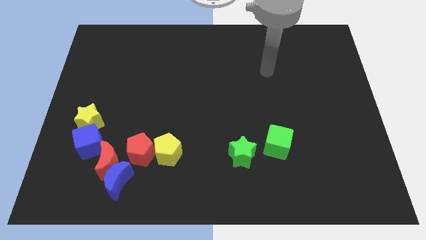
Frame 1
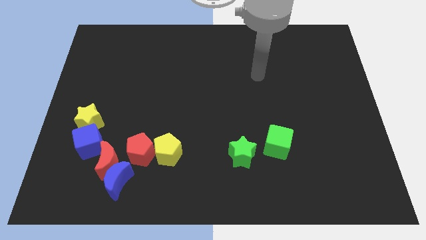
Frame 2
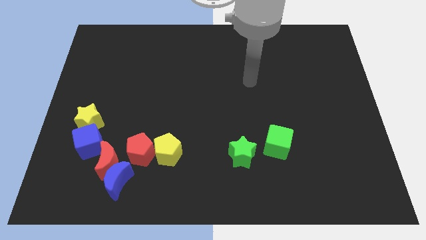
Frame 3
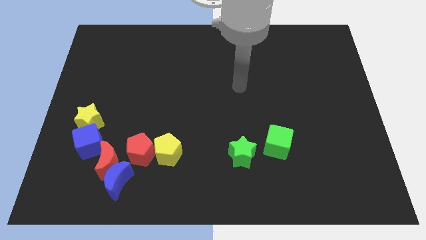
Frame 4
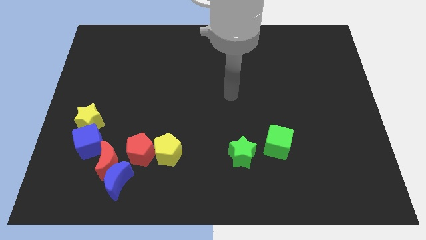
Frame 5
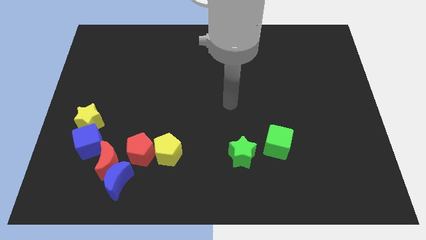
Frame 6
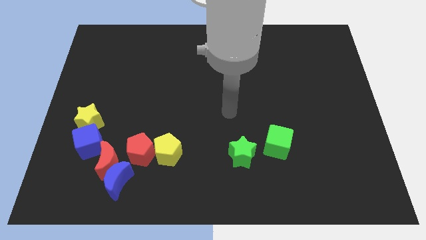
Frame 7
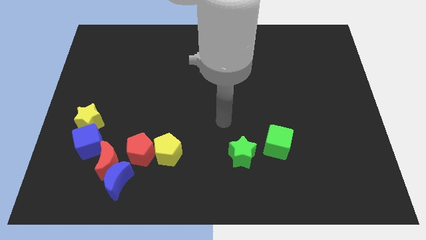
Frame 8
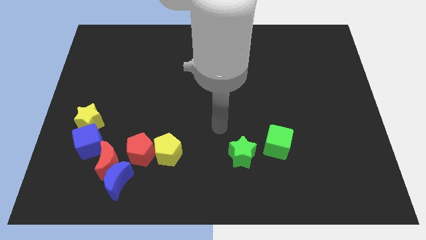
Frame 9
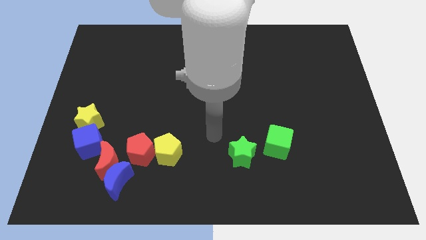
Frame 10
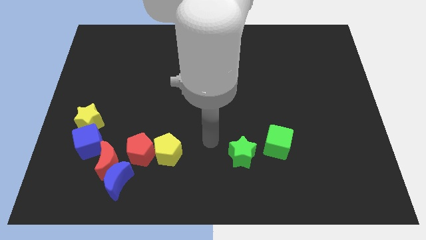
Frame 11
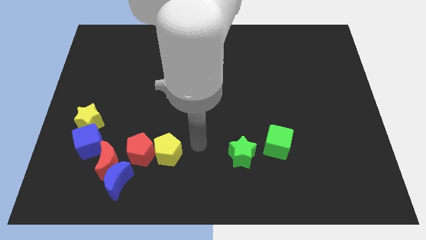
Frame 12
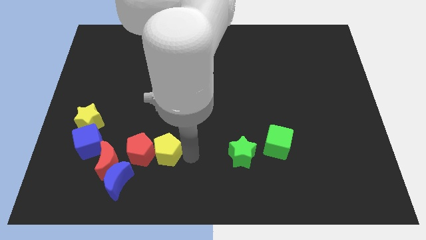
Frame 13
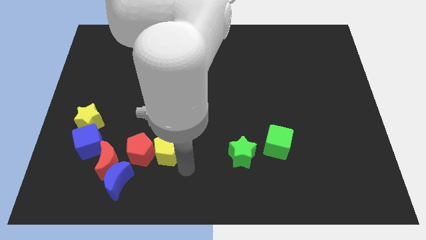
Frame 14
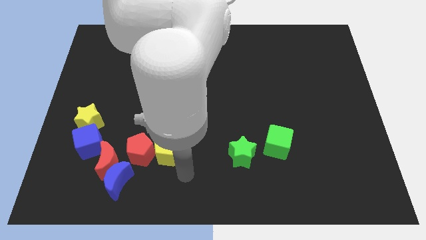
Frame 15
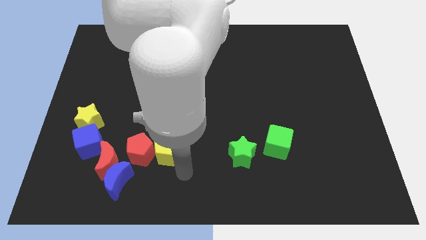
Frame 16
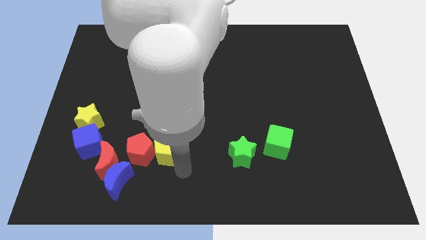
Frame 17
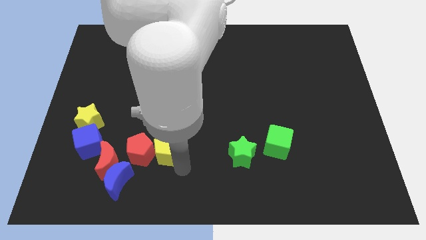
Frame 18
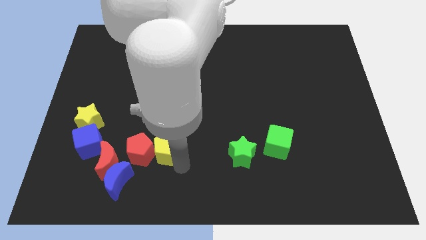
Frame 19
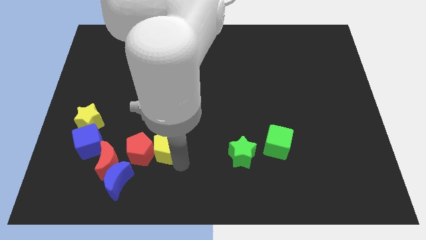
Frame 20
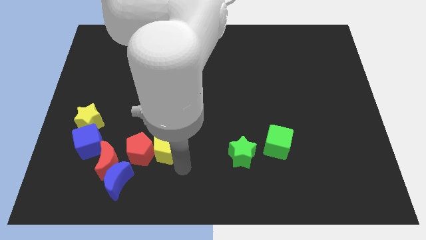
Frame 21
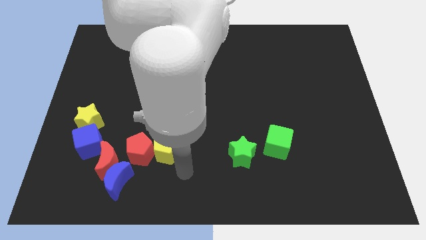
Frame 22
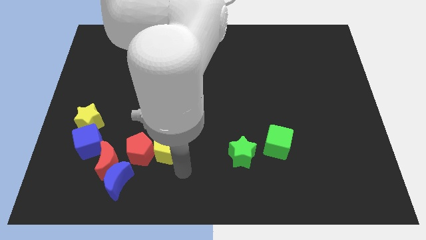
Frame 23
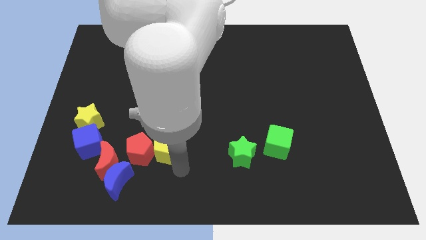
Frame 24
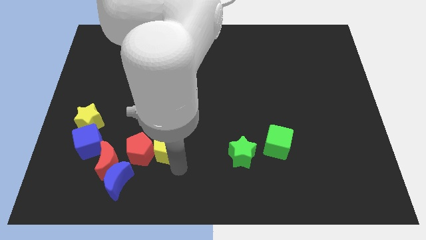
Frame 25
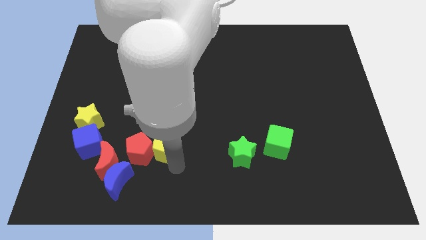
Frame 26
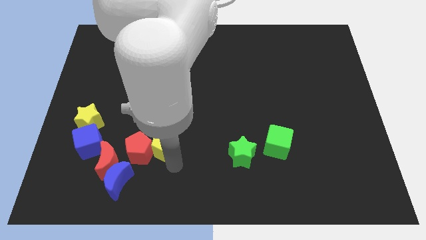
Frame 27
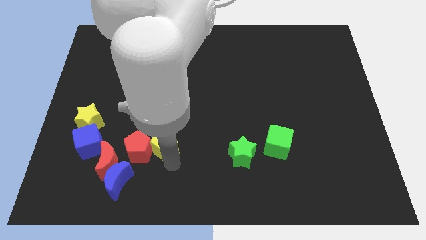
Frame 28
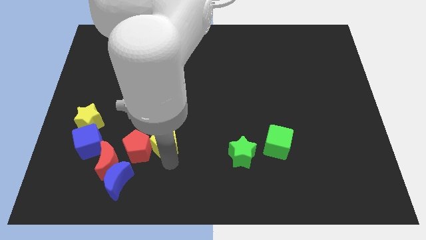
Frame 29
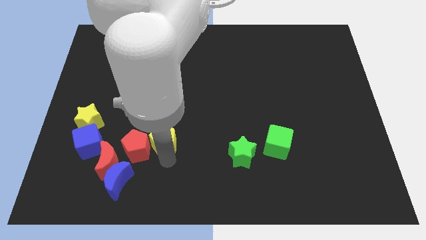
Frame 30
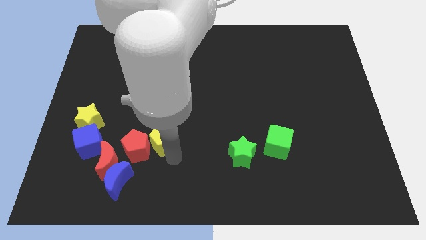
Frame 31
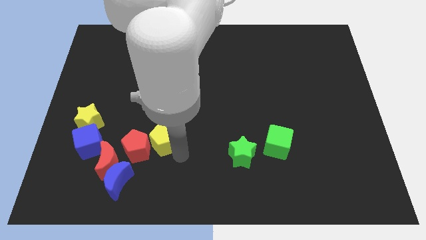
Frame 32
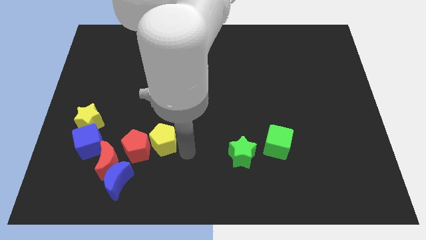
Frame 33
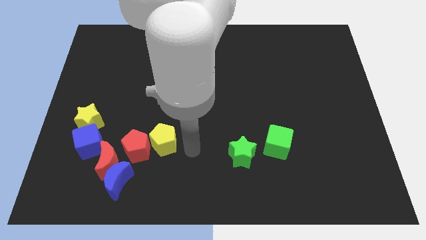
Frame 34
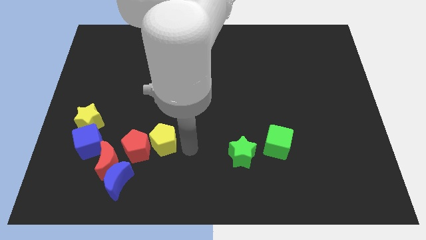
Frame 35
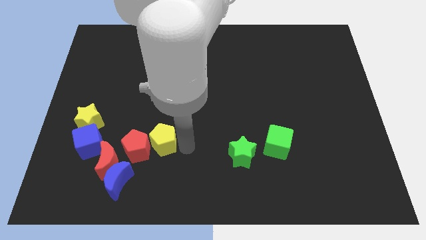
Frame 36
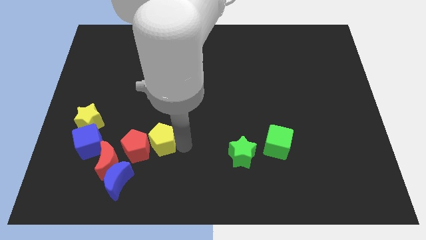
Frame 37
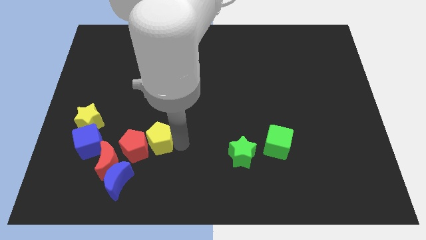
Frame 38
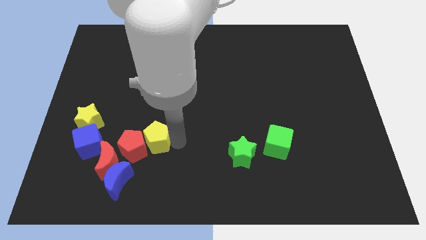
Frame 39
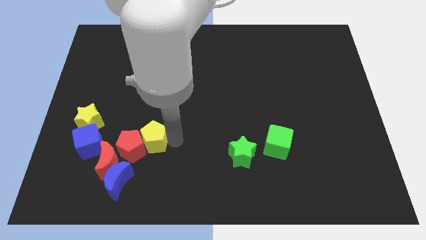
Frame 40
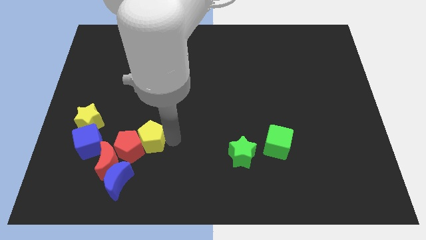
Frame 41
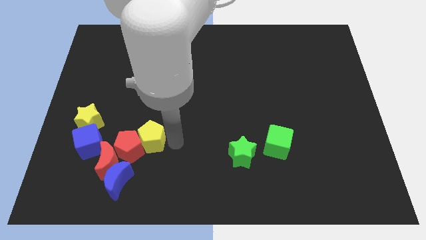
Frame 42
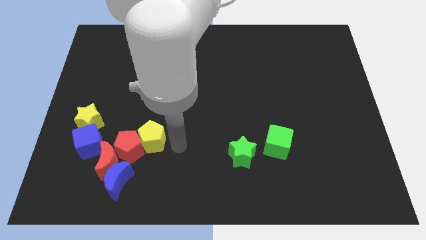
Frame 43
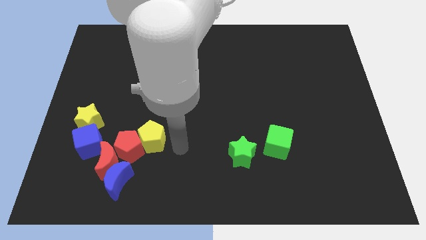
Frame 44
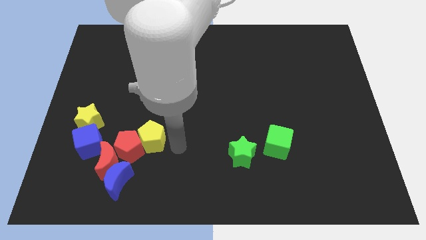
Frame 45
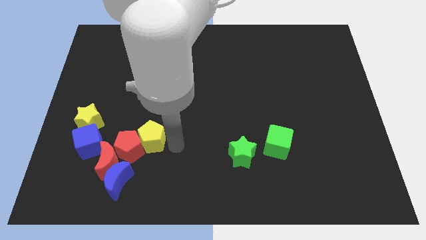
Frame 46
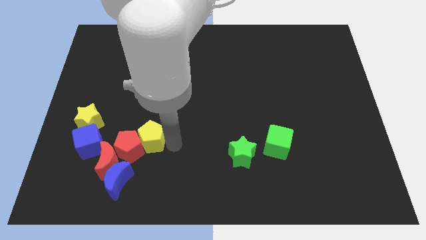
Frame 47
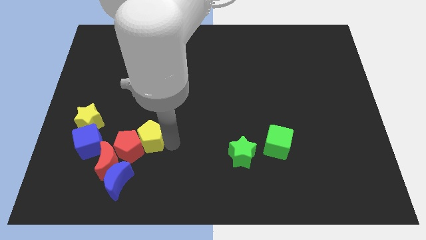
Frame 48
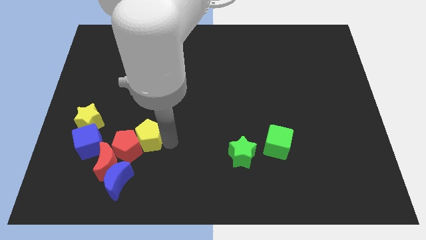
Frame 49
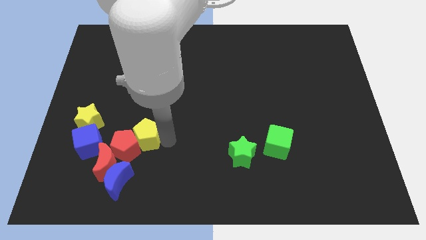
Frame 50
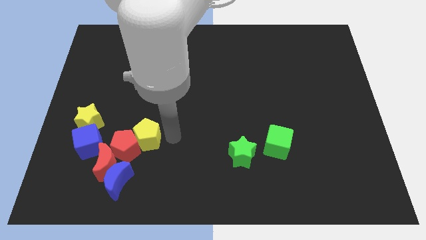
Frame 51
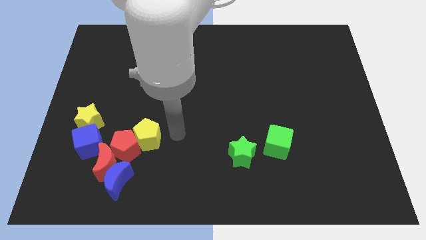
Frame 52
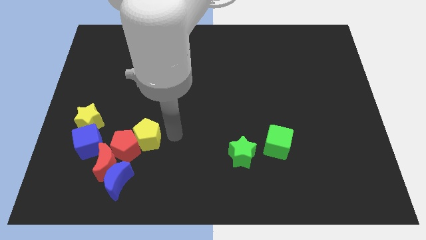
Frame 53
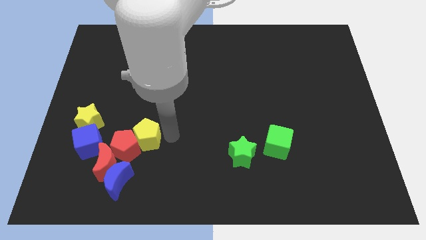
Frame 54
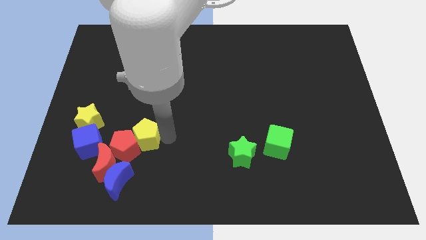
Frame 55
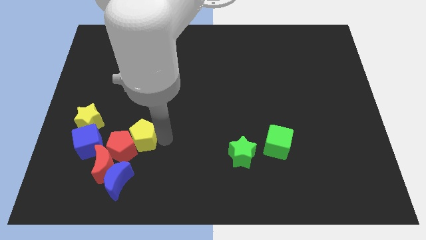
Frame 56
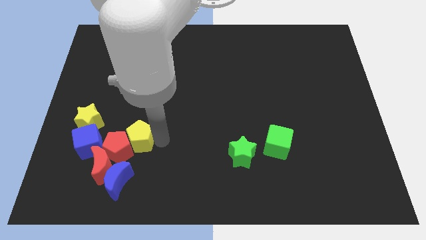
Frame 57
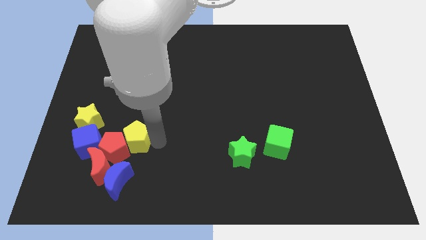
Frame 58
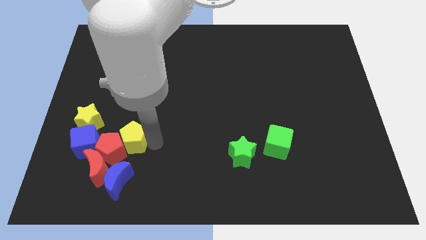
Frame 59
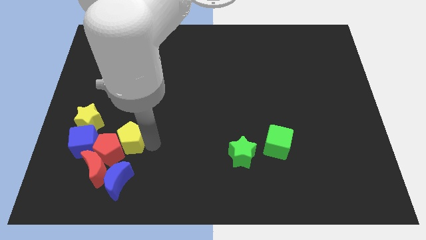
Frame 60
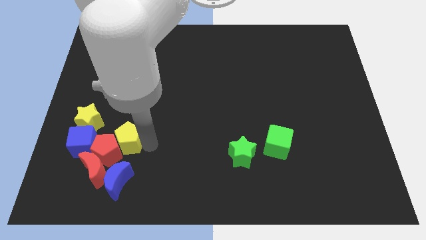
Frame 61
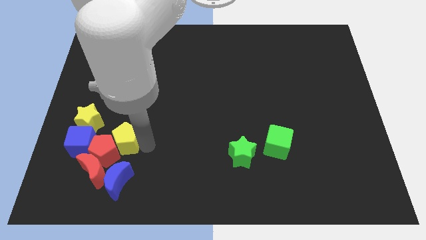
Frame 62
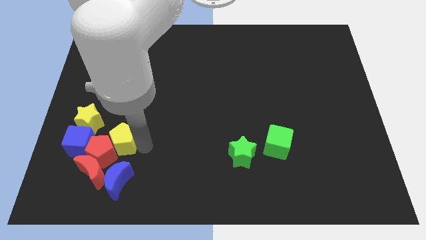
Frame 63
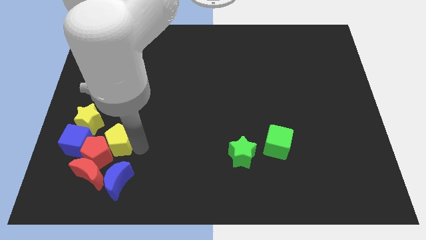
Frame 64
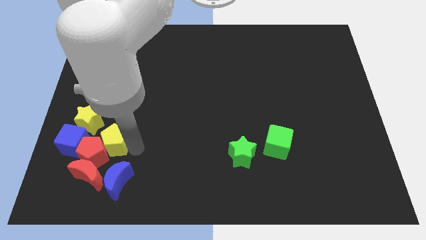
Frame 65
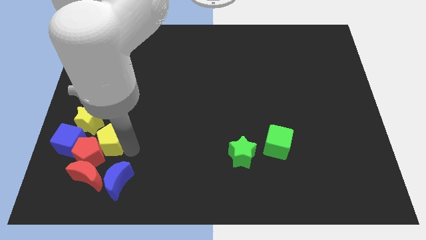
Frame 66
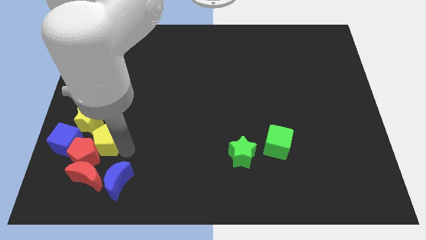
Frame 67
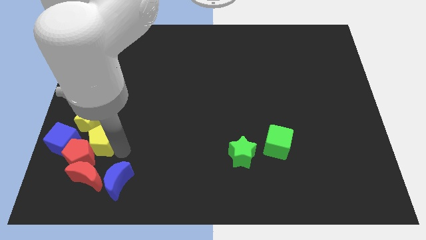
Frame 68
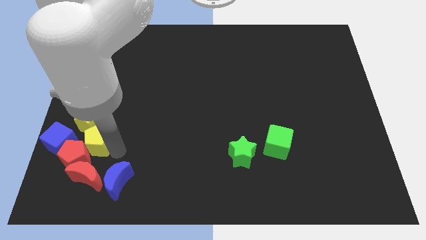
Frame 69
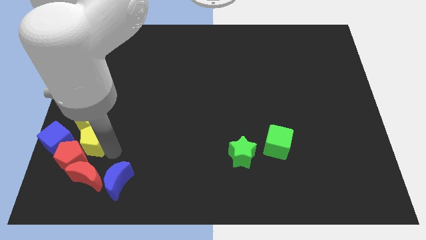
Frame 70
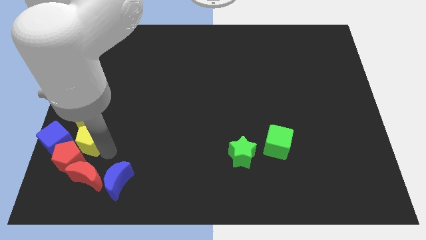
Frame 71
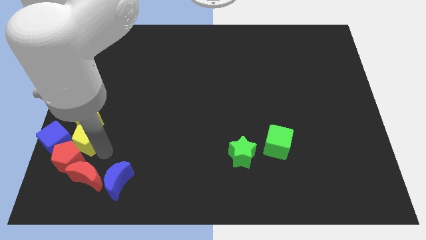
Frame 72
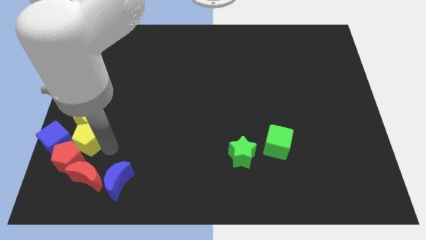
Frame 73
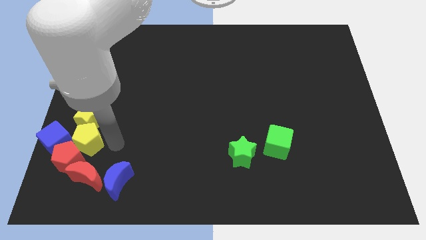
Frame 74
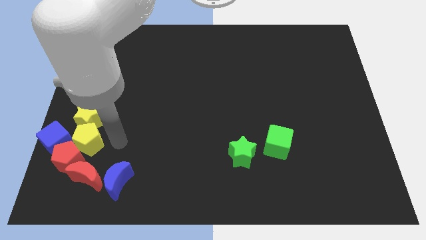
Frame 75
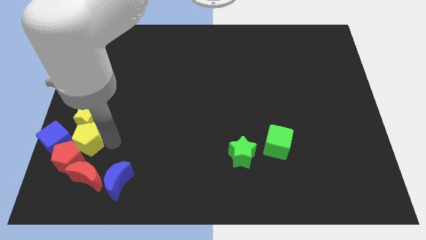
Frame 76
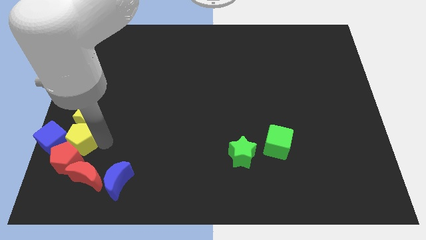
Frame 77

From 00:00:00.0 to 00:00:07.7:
slide the yellow pentagon close to the blue cube

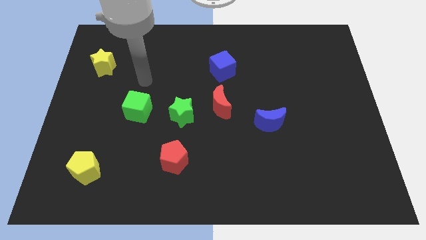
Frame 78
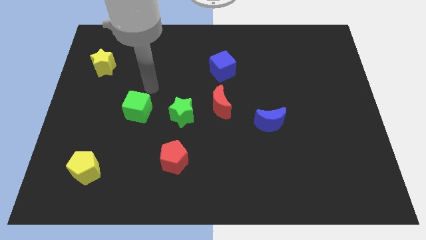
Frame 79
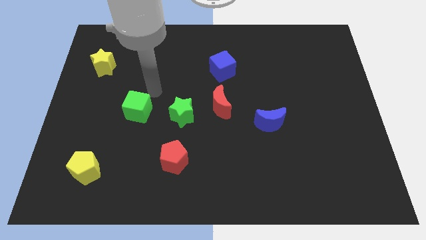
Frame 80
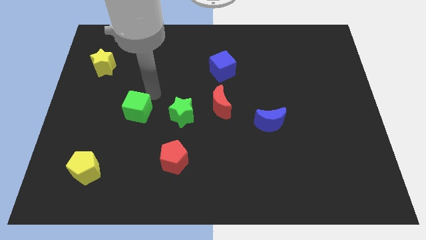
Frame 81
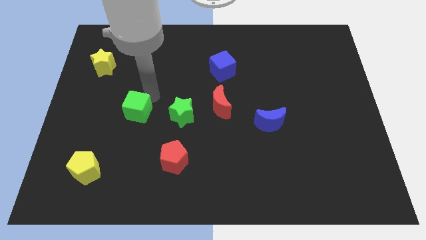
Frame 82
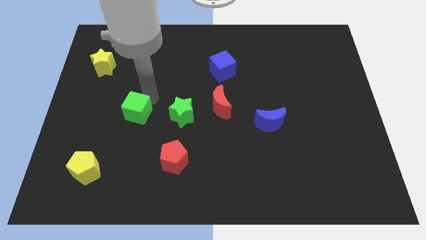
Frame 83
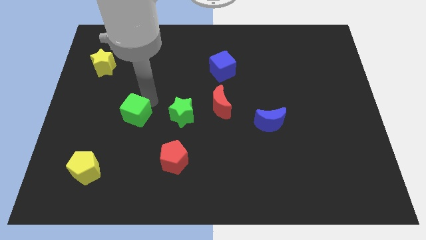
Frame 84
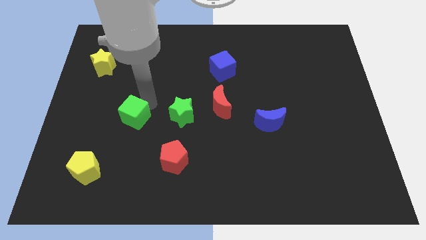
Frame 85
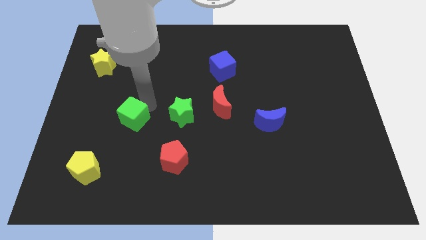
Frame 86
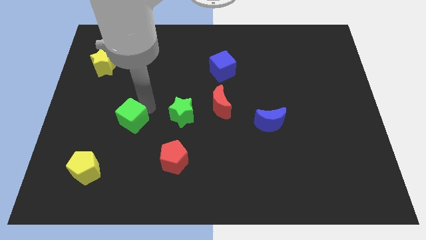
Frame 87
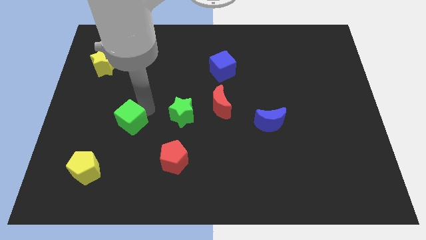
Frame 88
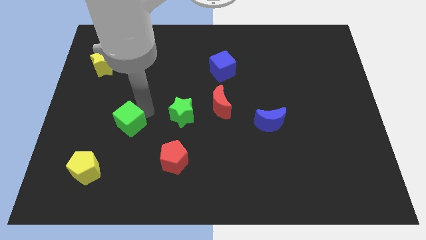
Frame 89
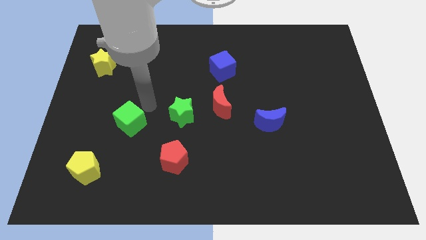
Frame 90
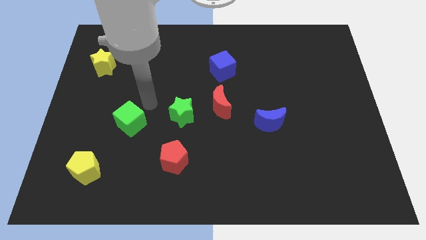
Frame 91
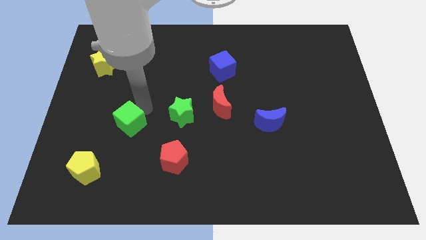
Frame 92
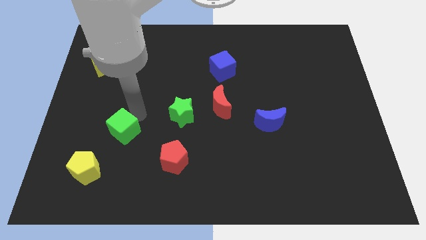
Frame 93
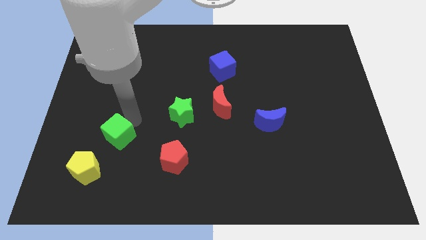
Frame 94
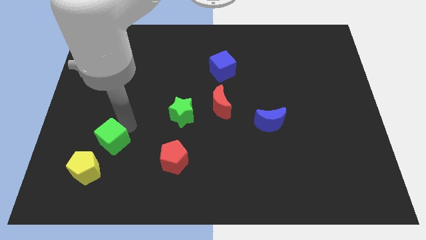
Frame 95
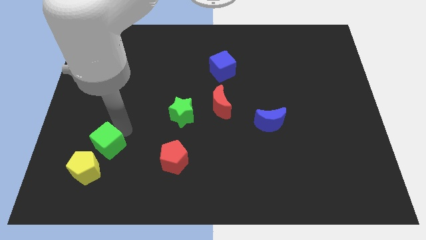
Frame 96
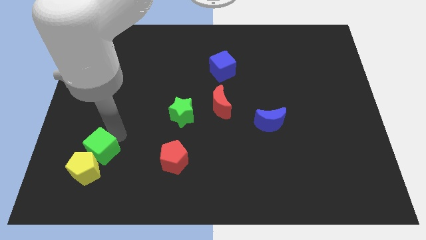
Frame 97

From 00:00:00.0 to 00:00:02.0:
move the green cube next to the yellow pentagon
